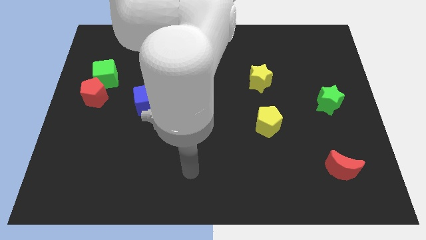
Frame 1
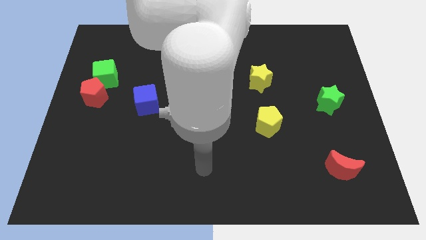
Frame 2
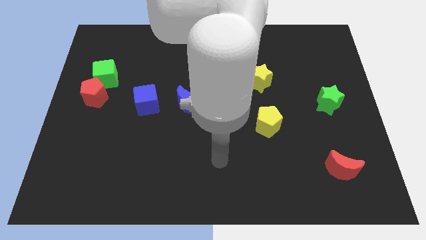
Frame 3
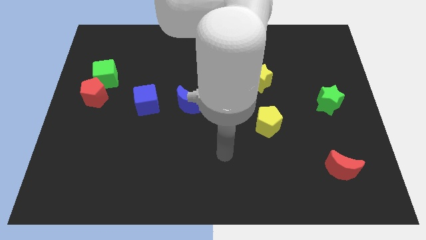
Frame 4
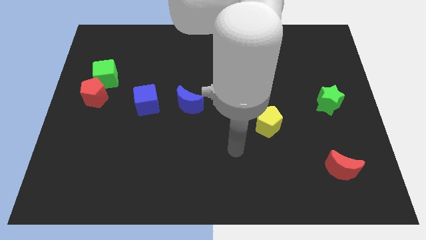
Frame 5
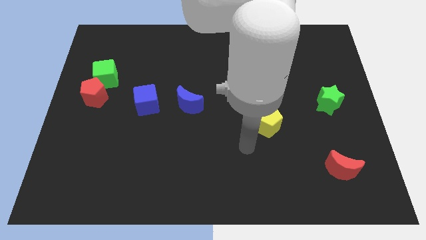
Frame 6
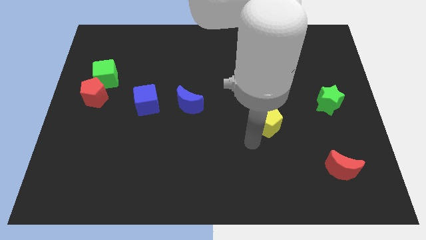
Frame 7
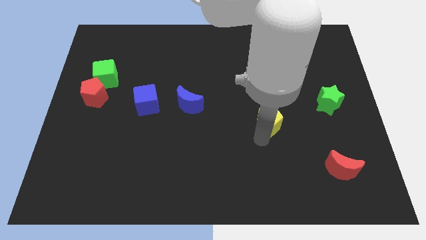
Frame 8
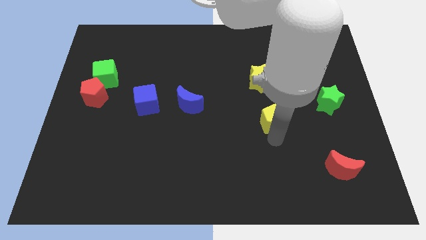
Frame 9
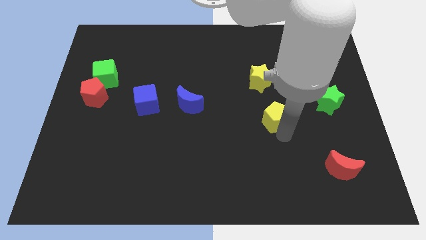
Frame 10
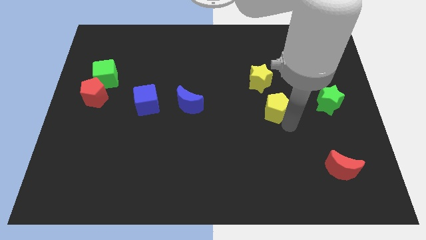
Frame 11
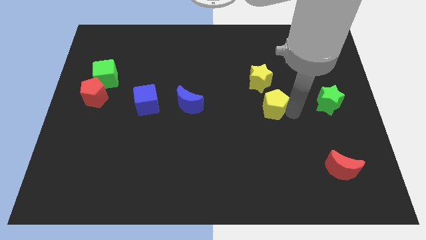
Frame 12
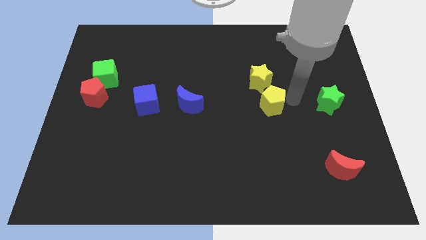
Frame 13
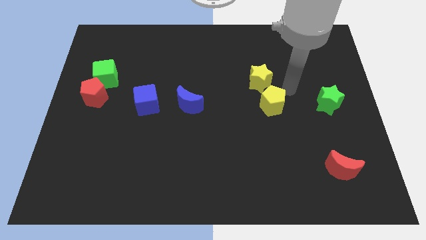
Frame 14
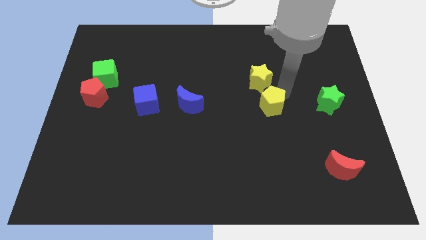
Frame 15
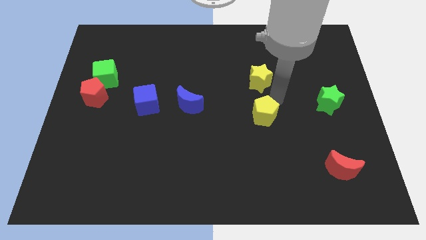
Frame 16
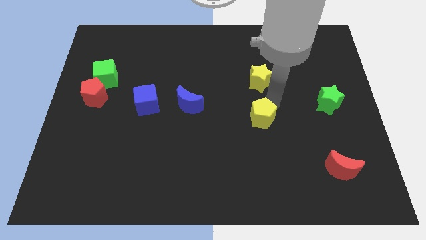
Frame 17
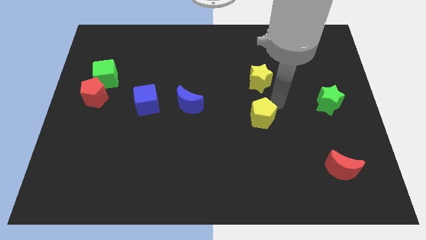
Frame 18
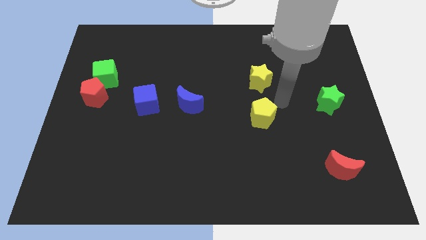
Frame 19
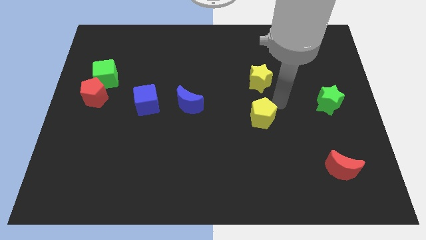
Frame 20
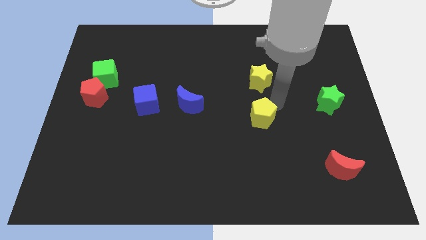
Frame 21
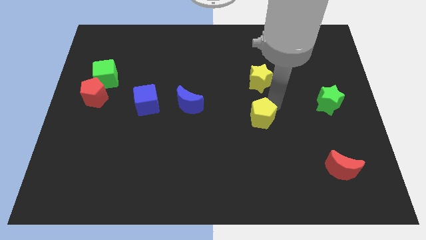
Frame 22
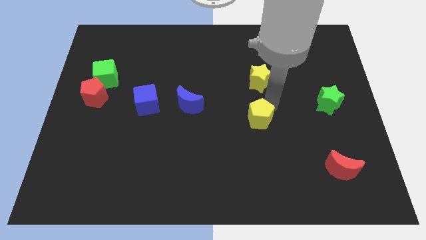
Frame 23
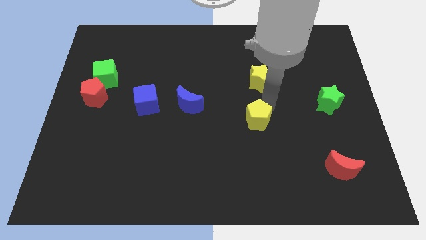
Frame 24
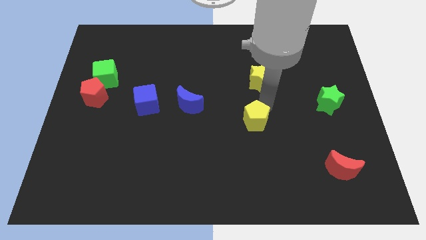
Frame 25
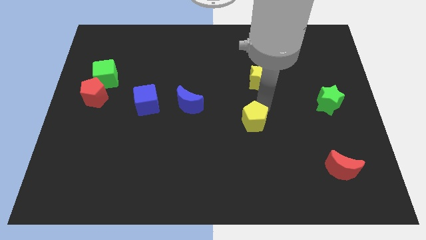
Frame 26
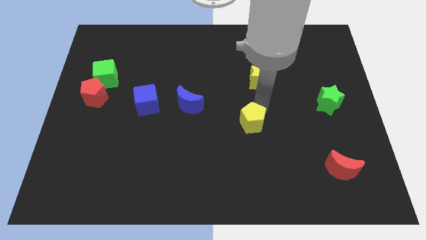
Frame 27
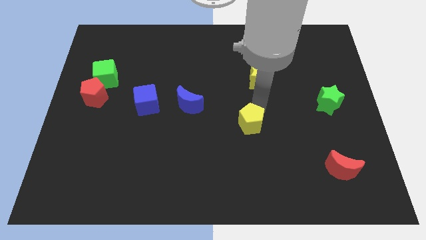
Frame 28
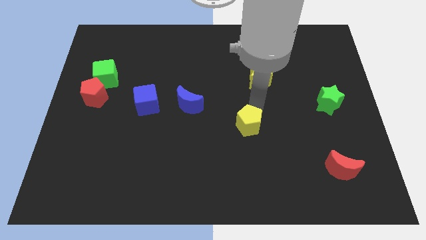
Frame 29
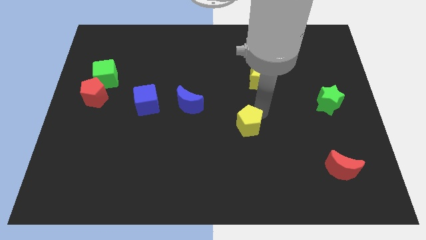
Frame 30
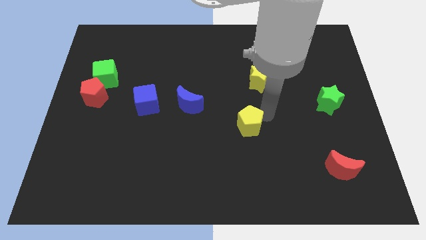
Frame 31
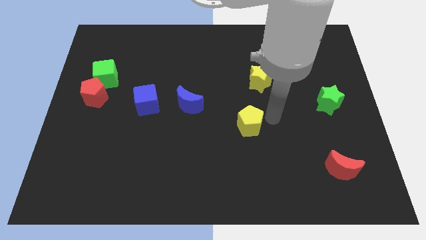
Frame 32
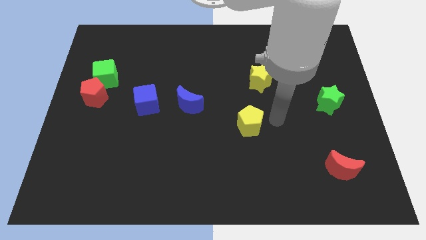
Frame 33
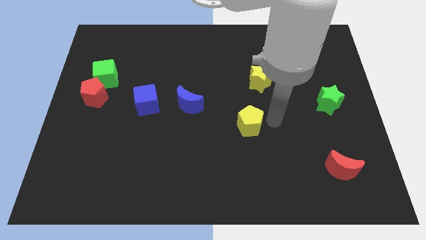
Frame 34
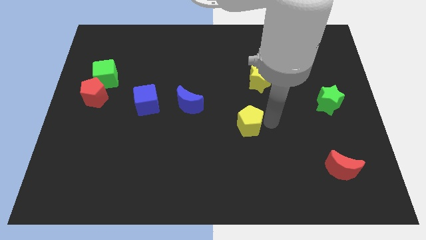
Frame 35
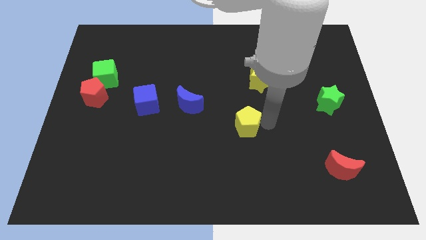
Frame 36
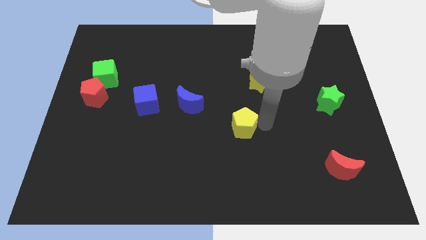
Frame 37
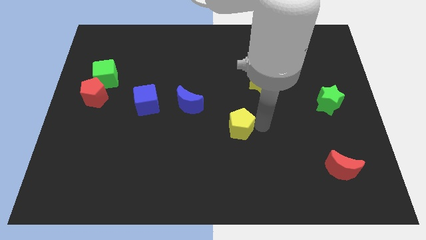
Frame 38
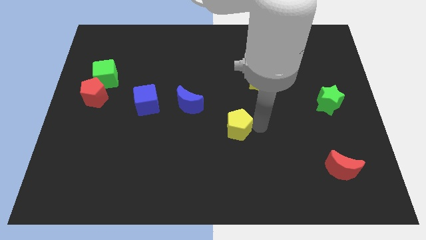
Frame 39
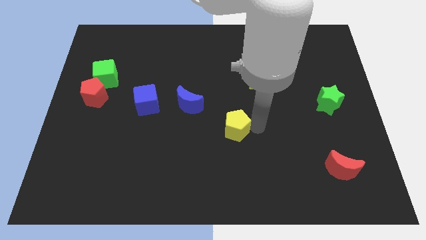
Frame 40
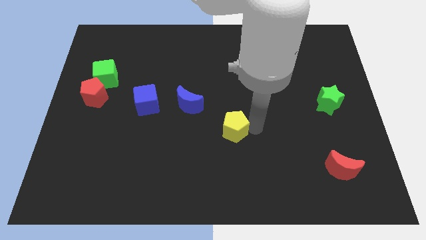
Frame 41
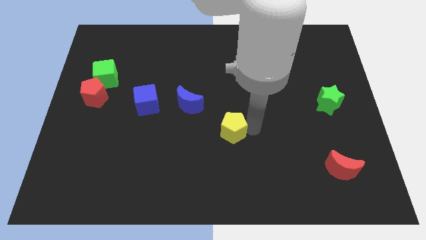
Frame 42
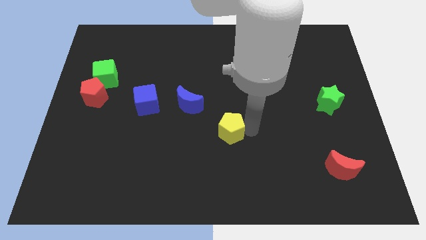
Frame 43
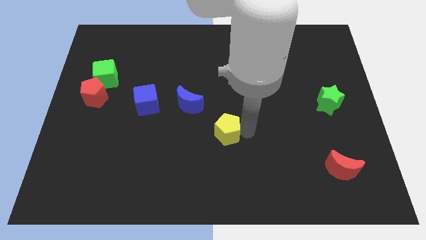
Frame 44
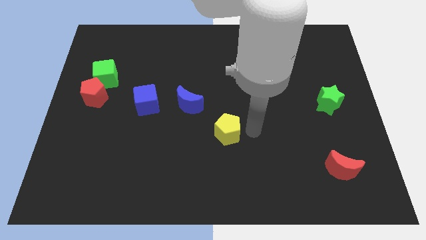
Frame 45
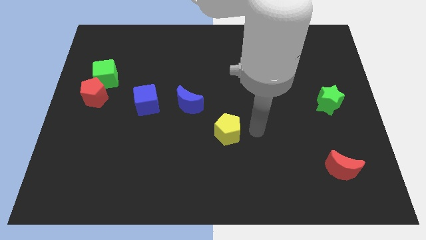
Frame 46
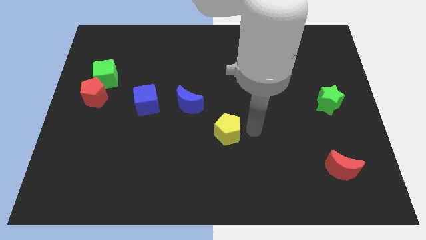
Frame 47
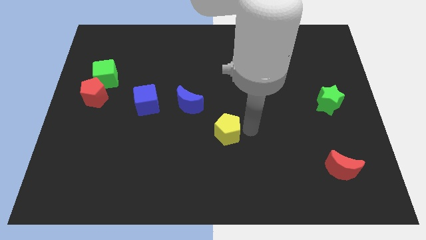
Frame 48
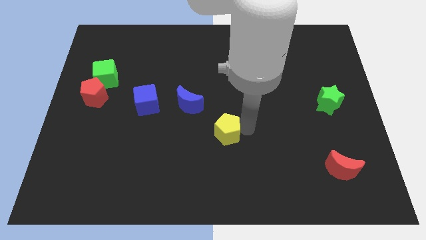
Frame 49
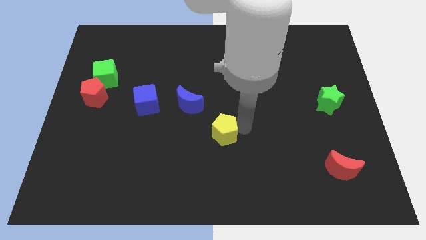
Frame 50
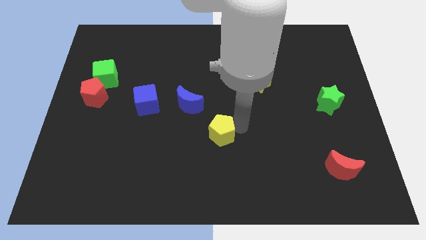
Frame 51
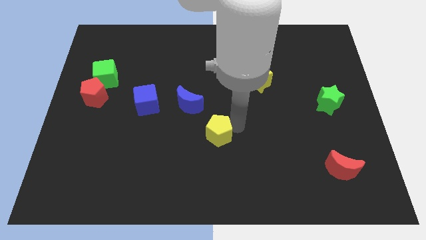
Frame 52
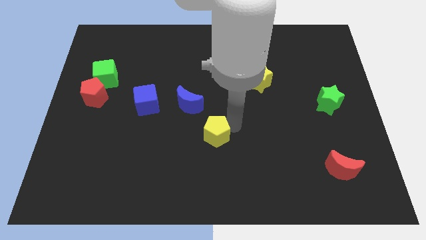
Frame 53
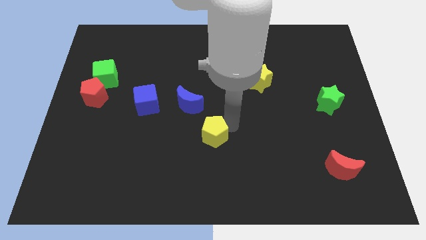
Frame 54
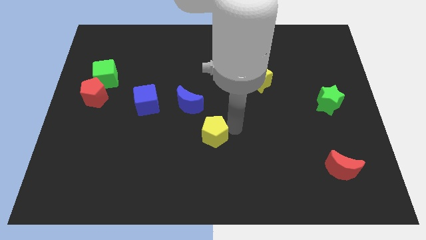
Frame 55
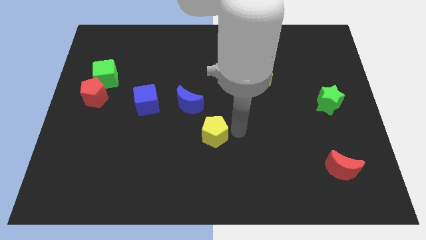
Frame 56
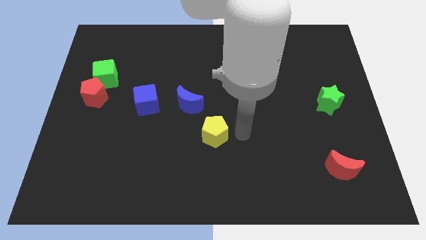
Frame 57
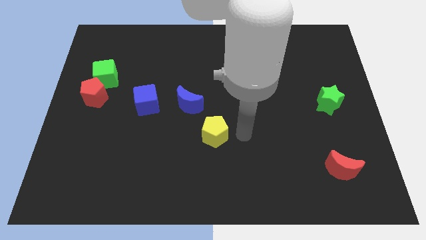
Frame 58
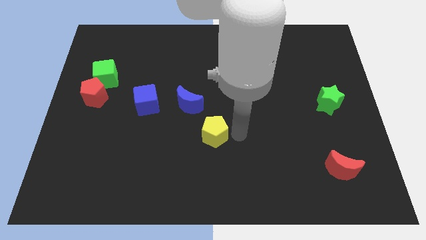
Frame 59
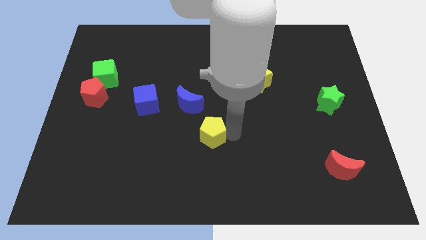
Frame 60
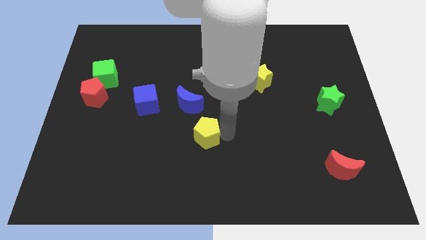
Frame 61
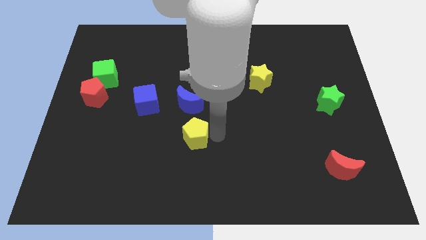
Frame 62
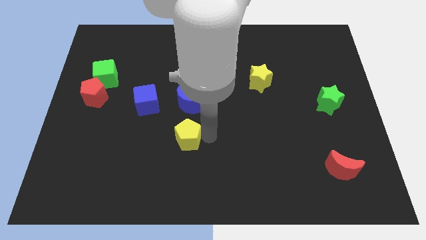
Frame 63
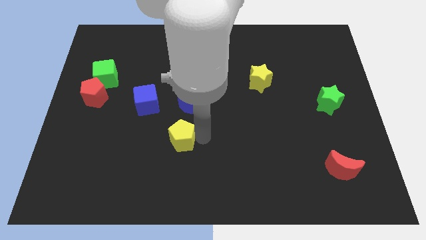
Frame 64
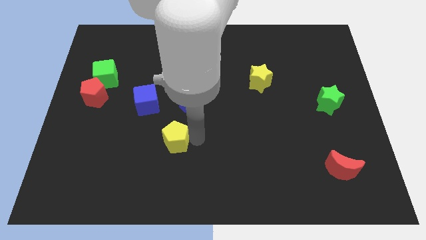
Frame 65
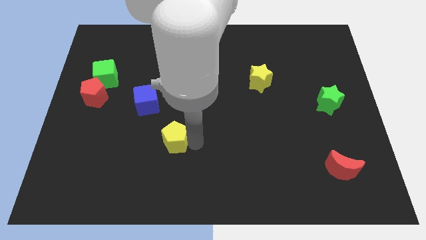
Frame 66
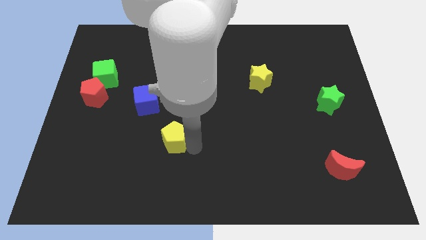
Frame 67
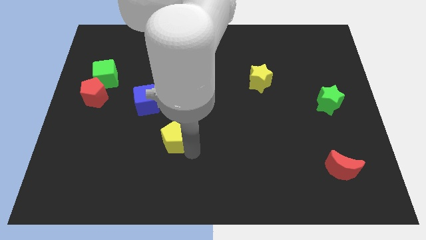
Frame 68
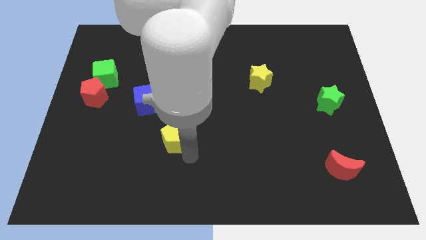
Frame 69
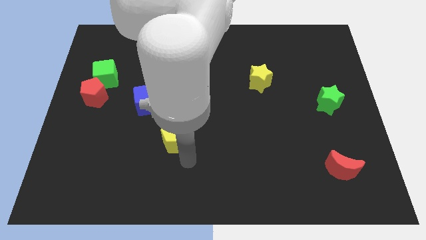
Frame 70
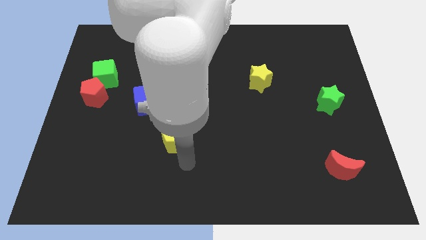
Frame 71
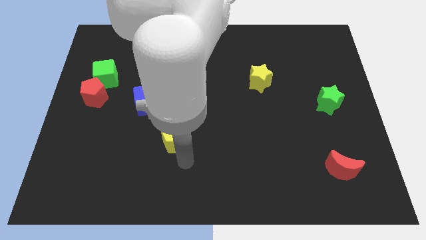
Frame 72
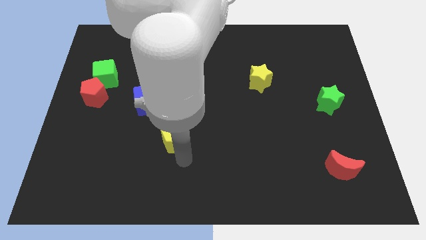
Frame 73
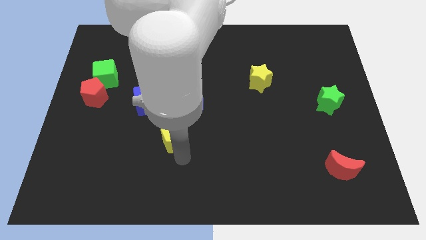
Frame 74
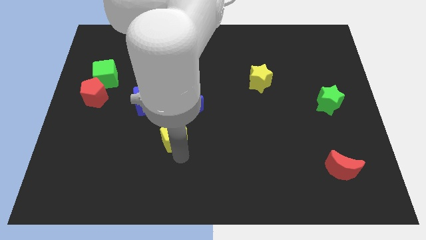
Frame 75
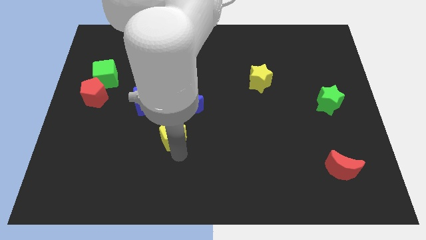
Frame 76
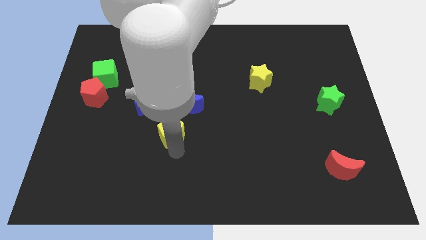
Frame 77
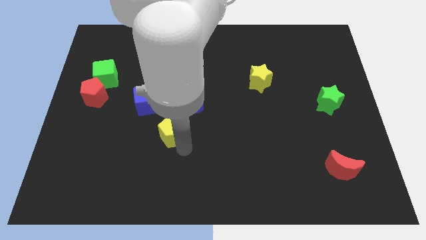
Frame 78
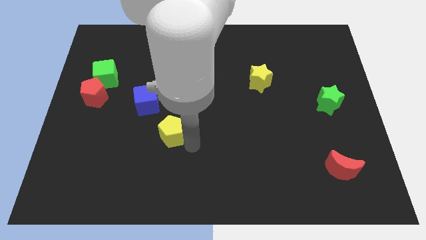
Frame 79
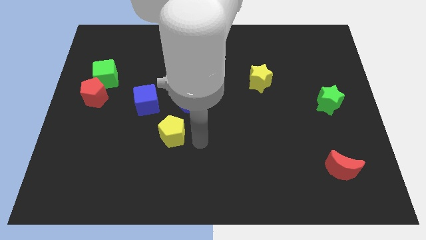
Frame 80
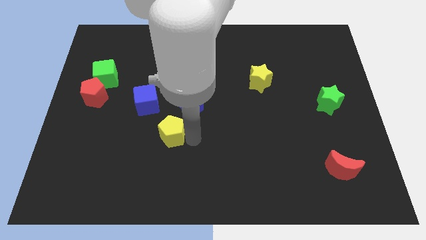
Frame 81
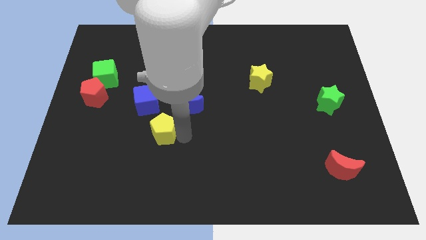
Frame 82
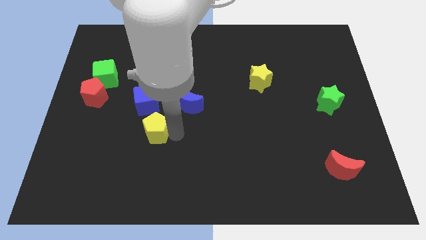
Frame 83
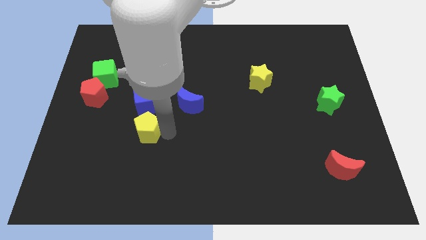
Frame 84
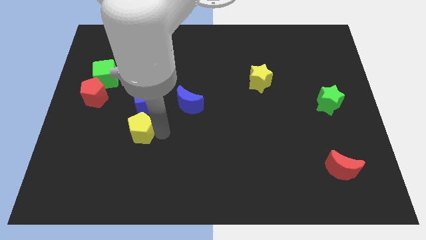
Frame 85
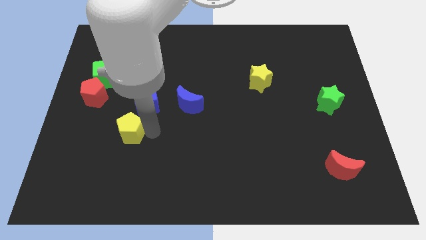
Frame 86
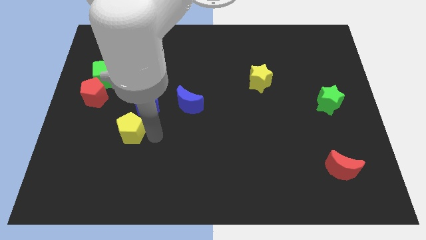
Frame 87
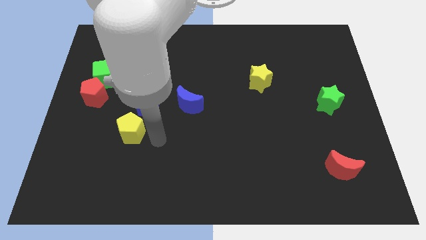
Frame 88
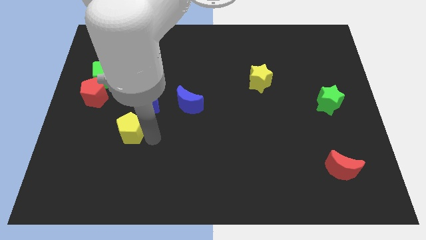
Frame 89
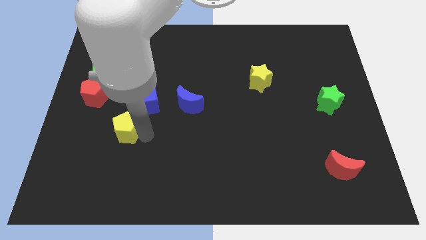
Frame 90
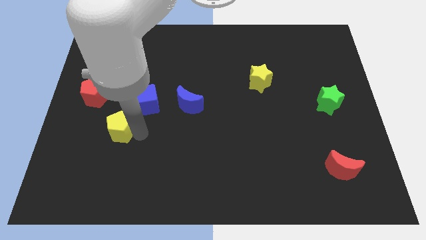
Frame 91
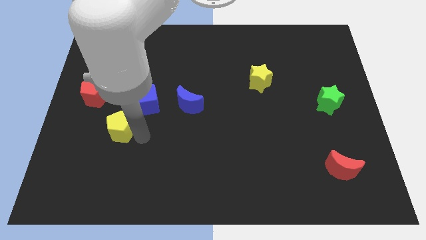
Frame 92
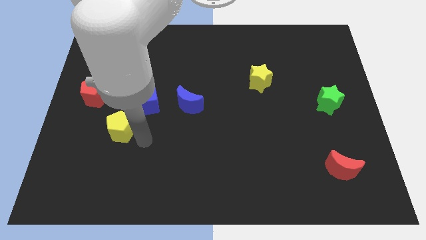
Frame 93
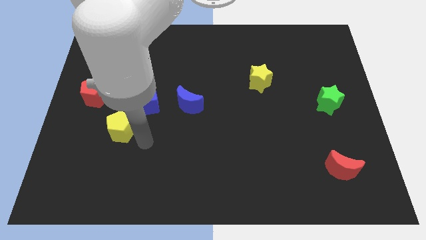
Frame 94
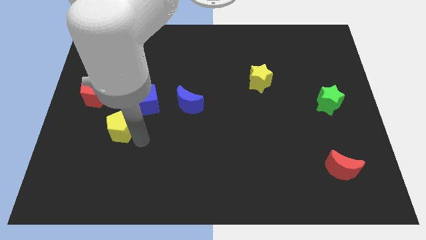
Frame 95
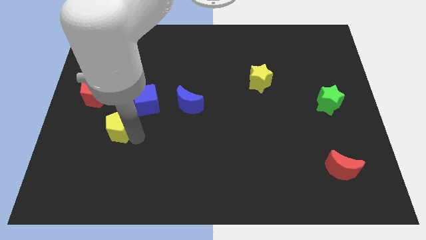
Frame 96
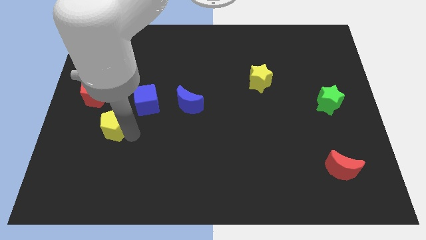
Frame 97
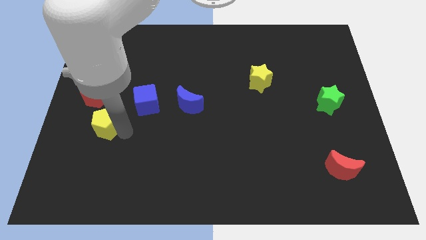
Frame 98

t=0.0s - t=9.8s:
put the yellow pentagon to the bottom side of the green cube
